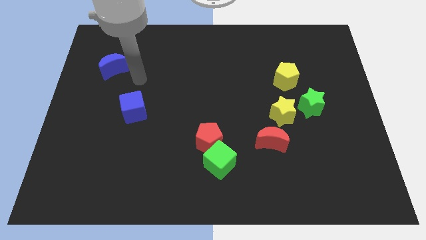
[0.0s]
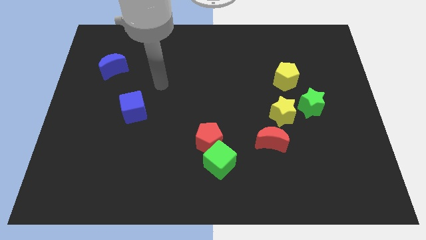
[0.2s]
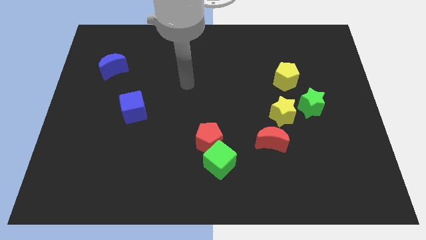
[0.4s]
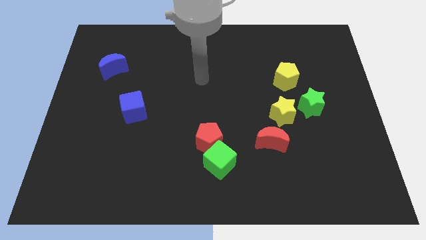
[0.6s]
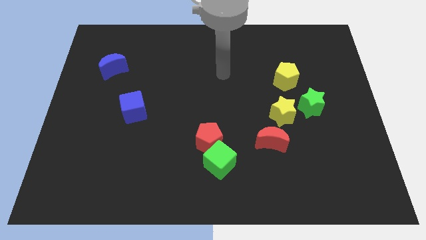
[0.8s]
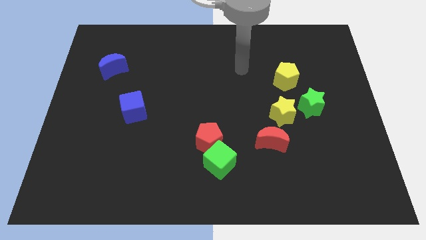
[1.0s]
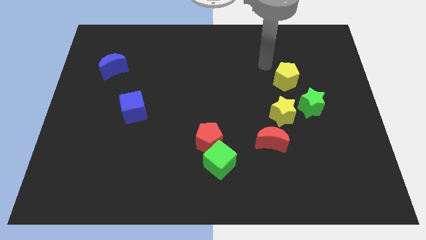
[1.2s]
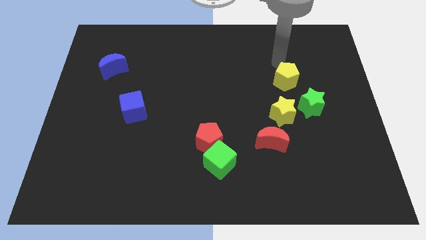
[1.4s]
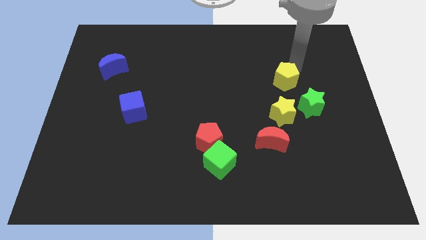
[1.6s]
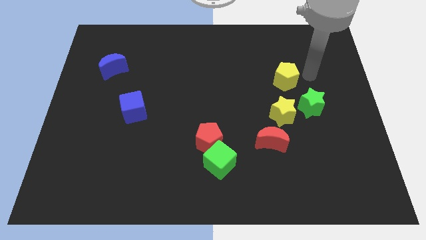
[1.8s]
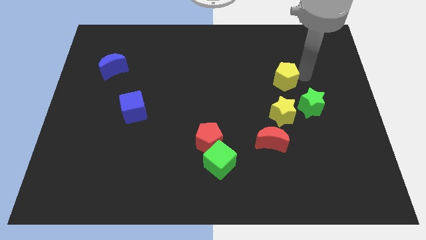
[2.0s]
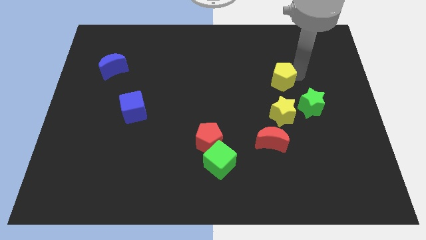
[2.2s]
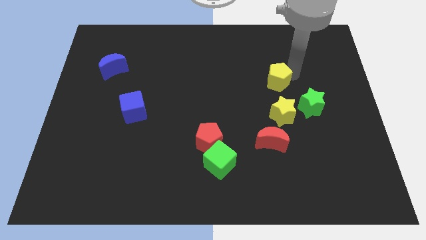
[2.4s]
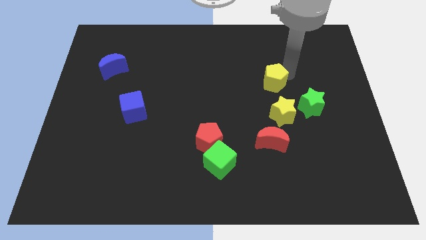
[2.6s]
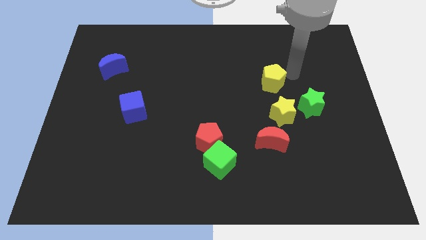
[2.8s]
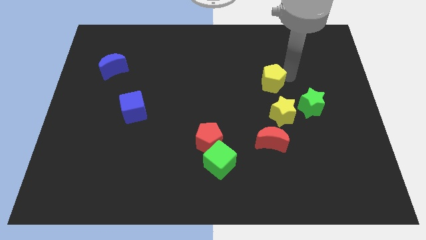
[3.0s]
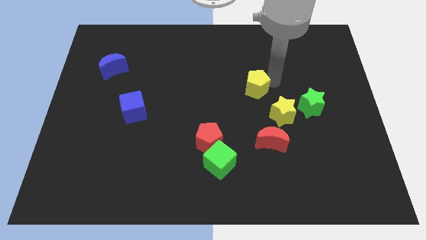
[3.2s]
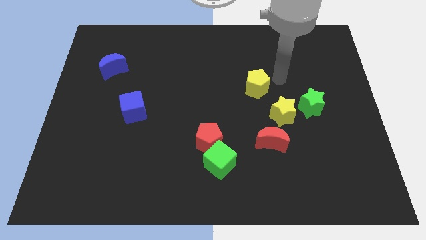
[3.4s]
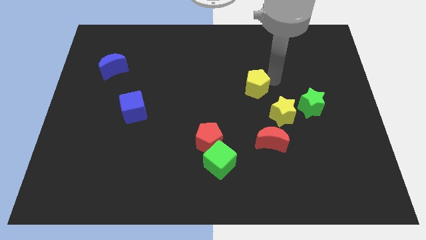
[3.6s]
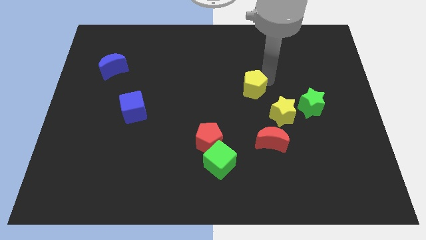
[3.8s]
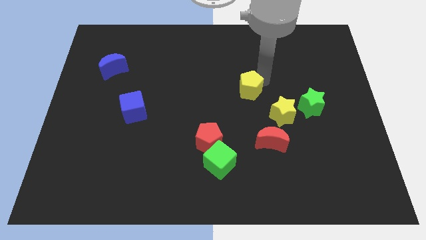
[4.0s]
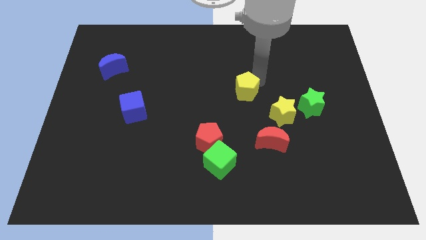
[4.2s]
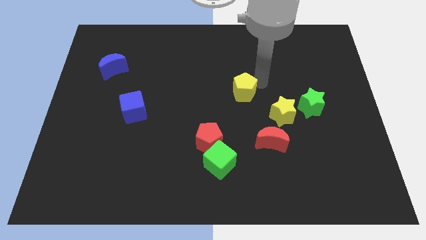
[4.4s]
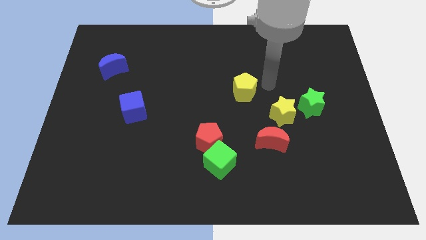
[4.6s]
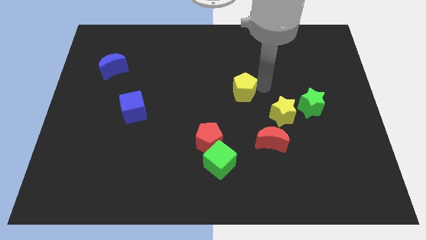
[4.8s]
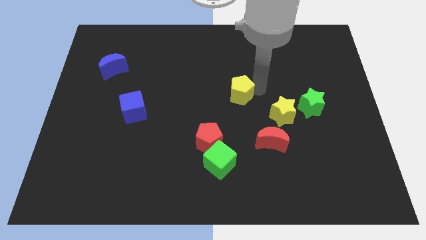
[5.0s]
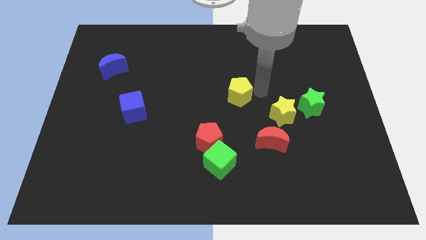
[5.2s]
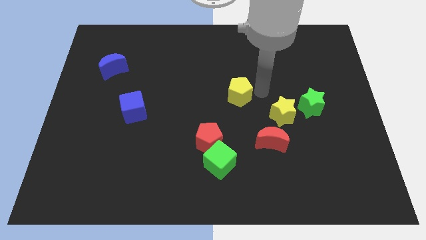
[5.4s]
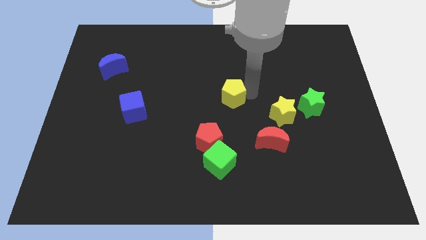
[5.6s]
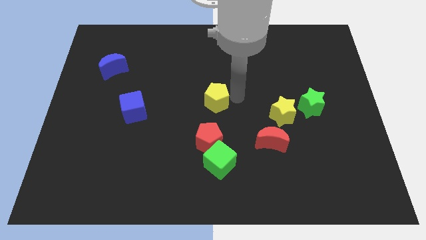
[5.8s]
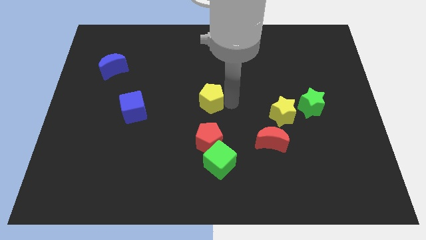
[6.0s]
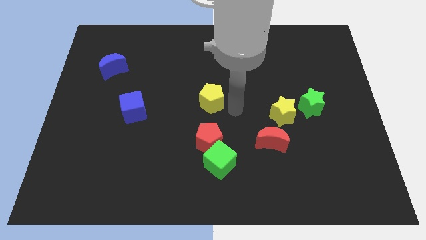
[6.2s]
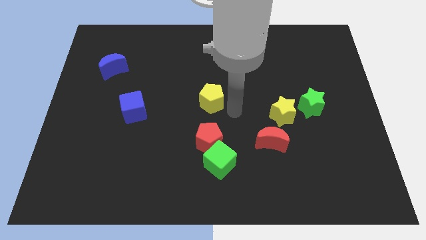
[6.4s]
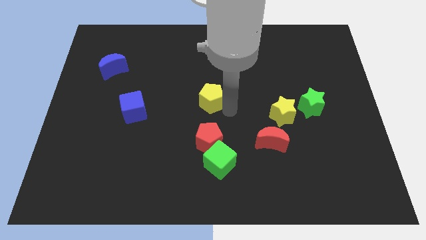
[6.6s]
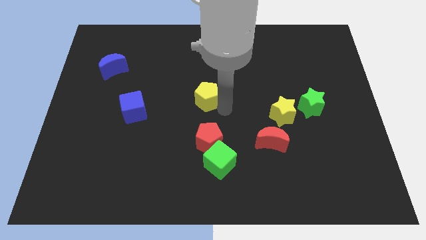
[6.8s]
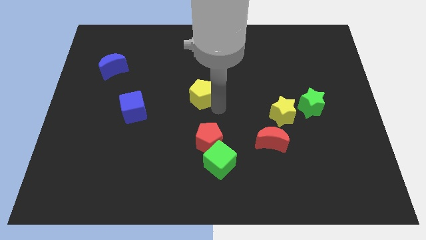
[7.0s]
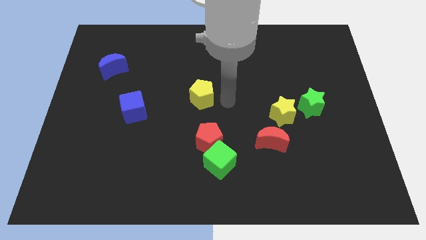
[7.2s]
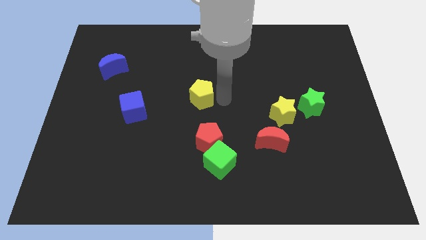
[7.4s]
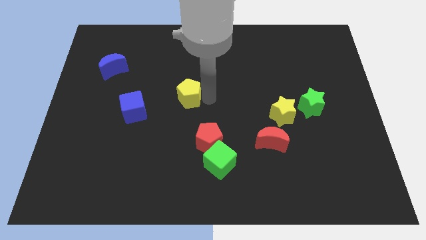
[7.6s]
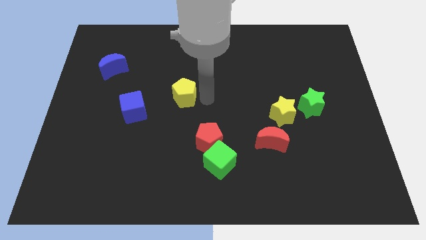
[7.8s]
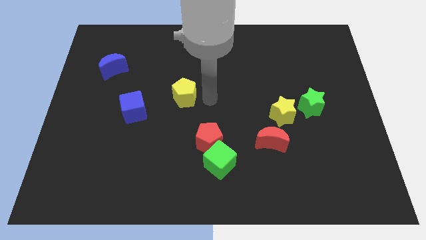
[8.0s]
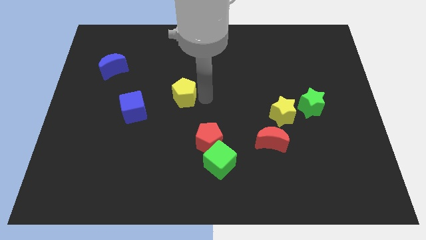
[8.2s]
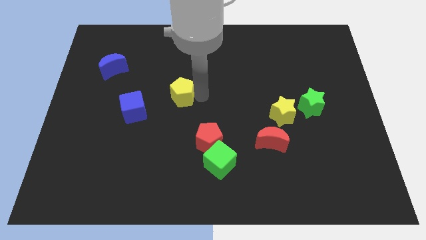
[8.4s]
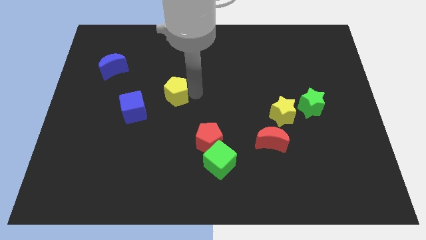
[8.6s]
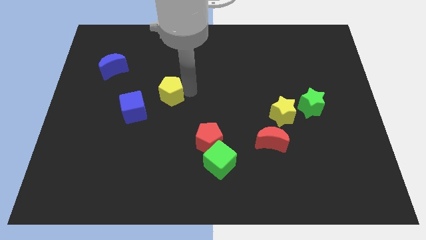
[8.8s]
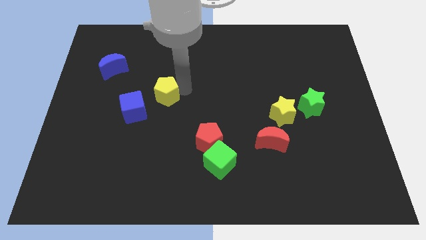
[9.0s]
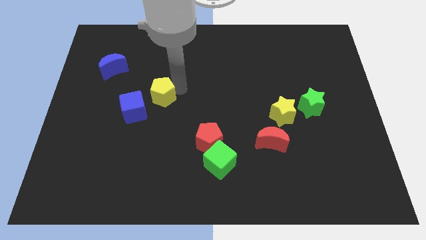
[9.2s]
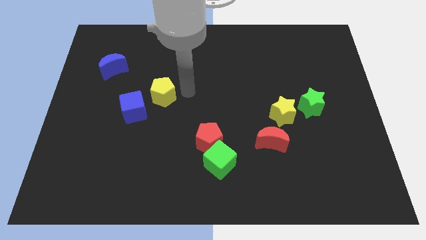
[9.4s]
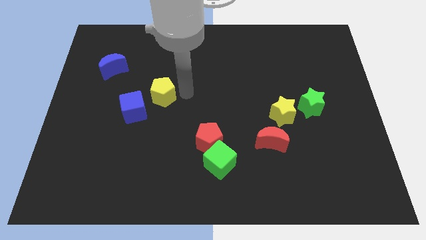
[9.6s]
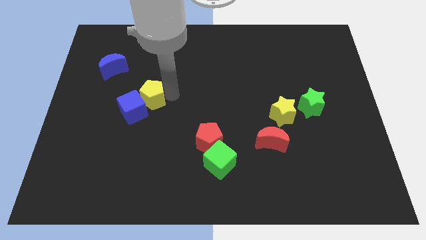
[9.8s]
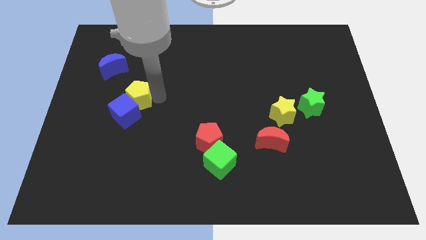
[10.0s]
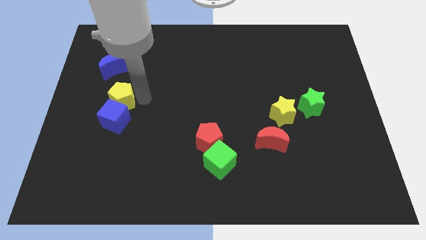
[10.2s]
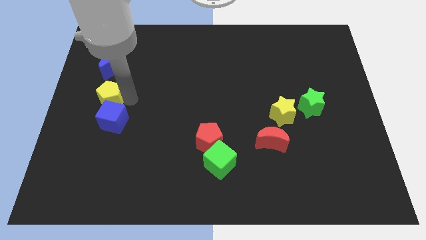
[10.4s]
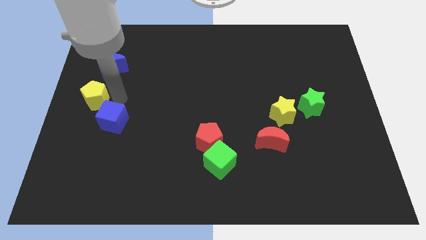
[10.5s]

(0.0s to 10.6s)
push the yellow pentagon to the left side

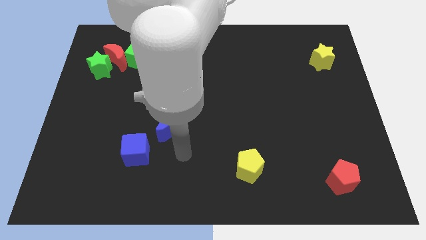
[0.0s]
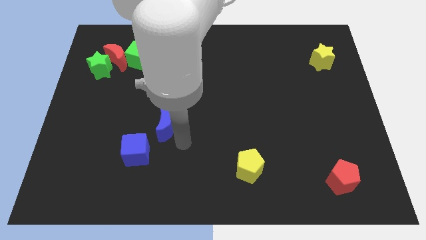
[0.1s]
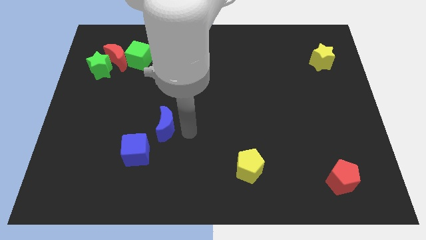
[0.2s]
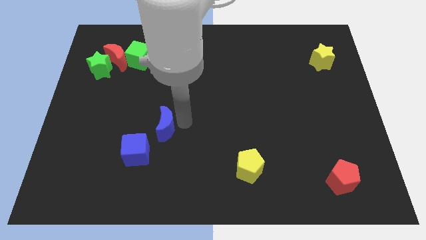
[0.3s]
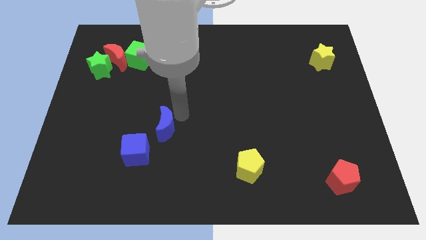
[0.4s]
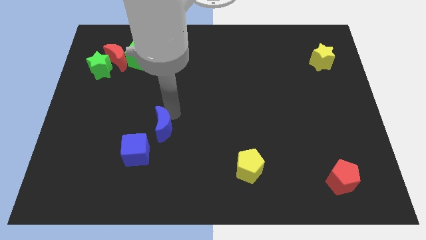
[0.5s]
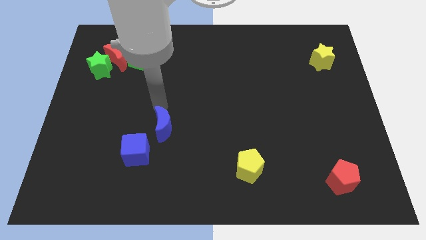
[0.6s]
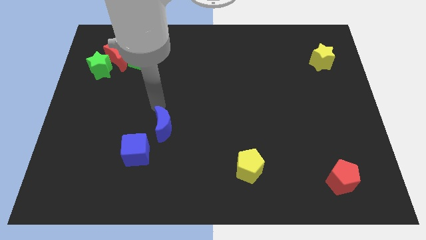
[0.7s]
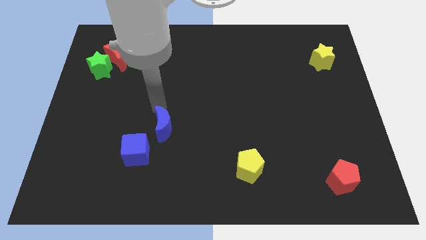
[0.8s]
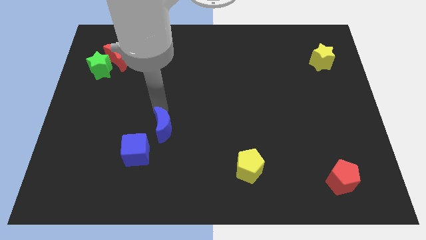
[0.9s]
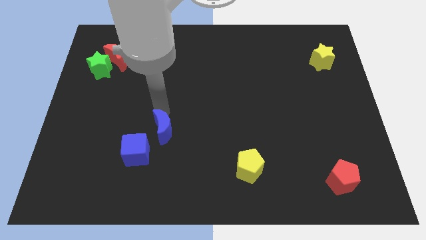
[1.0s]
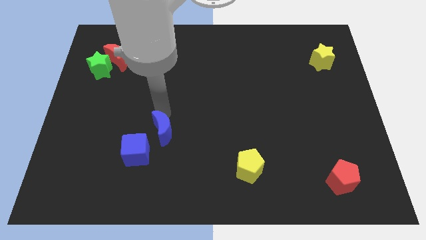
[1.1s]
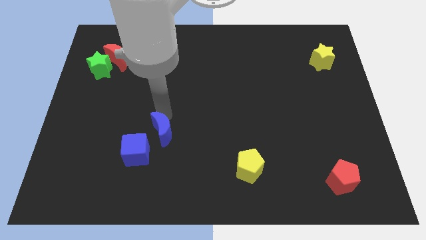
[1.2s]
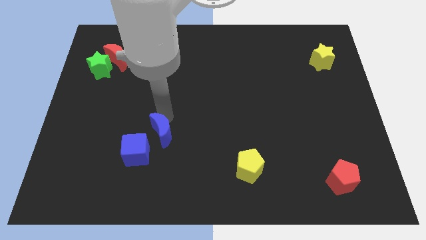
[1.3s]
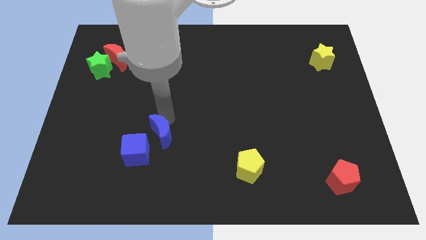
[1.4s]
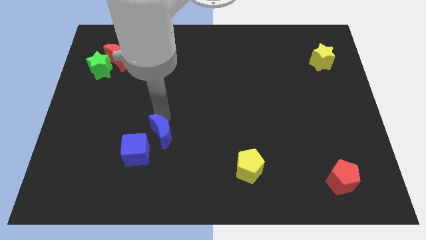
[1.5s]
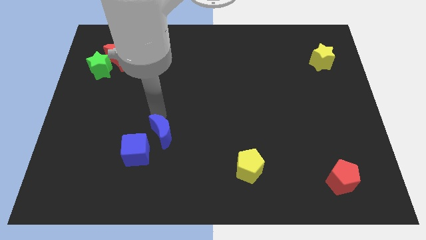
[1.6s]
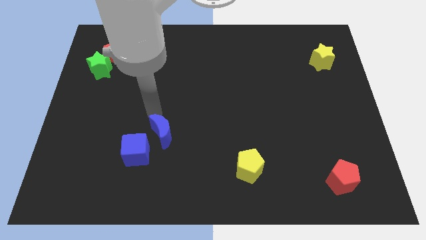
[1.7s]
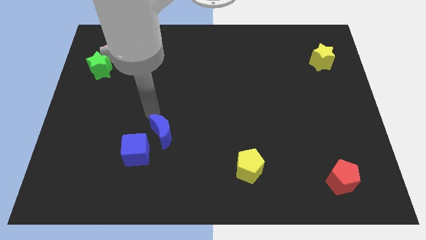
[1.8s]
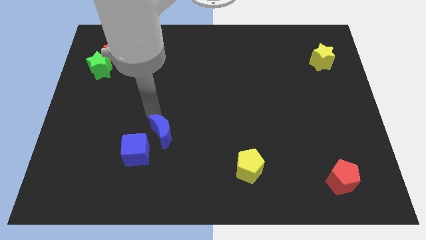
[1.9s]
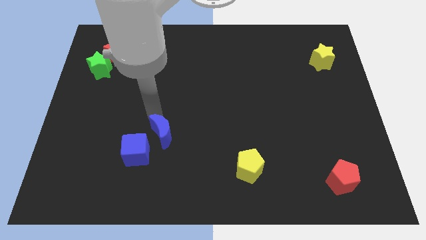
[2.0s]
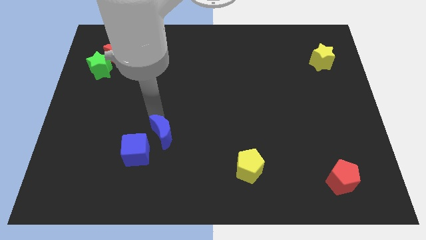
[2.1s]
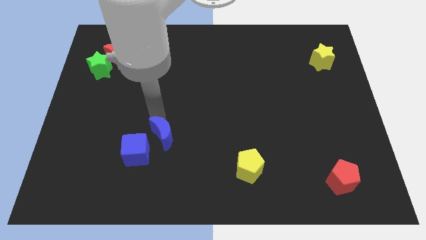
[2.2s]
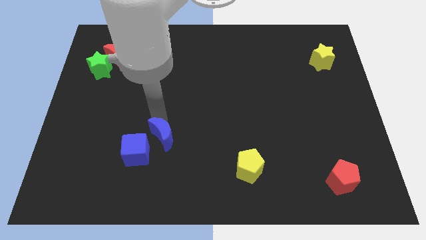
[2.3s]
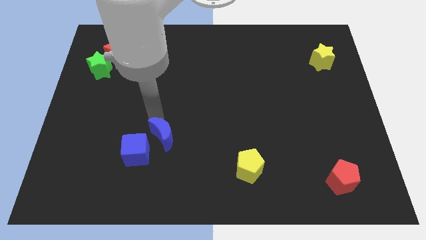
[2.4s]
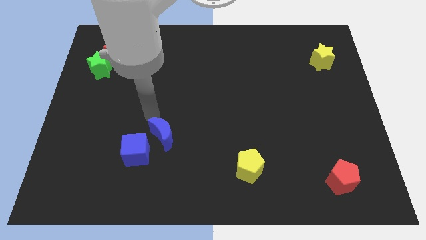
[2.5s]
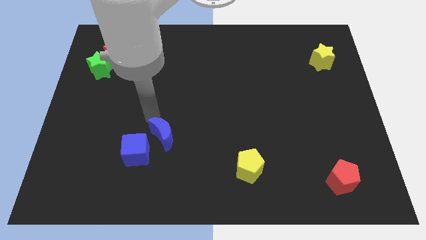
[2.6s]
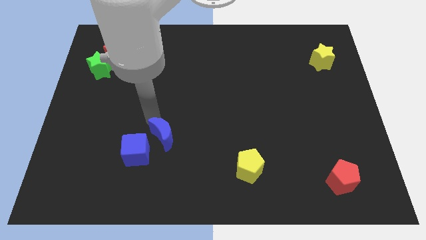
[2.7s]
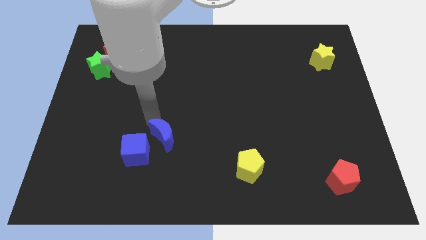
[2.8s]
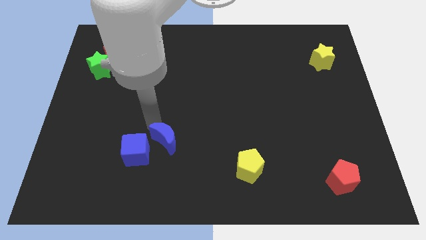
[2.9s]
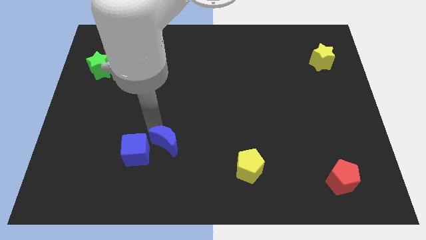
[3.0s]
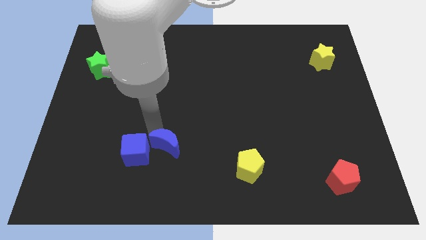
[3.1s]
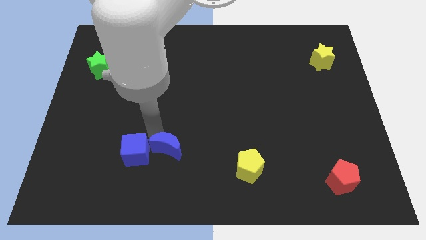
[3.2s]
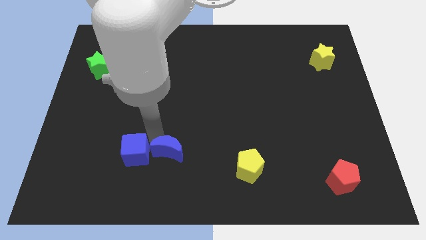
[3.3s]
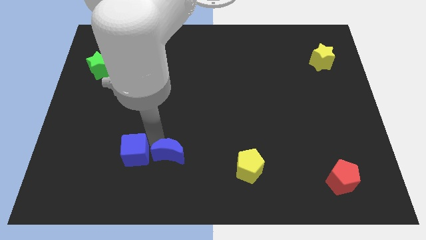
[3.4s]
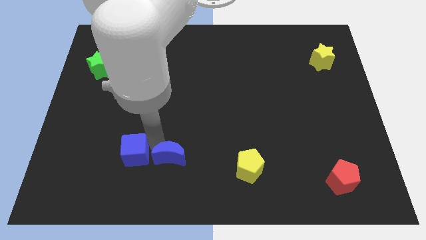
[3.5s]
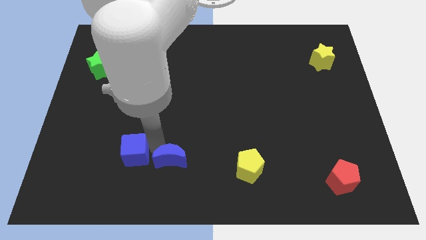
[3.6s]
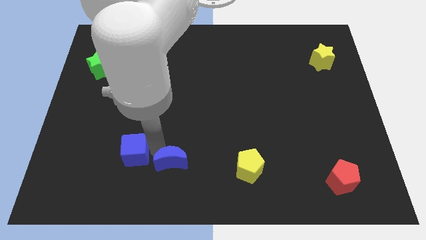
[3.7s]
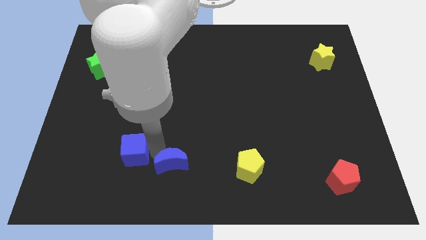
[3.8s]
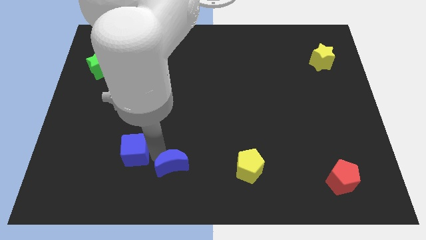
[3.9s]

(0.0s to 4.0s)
put the blue moon to the bottom side
